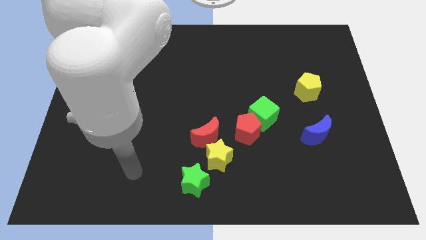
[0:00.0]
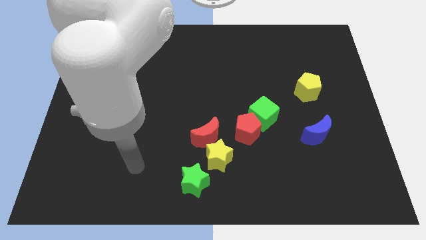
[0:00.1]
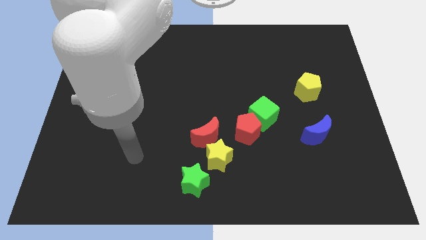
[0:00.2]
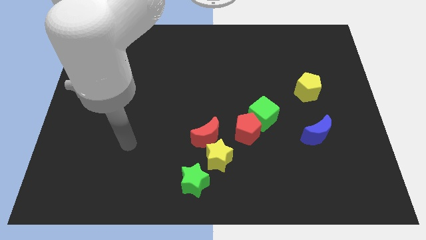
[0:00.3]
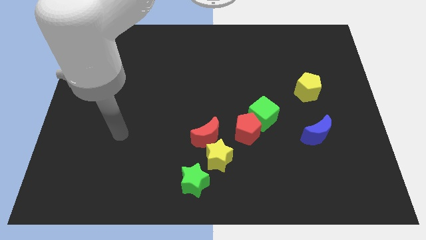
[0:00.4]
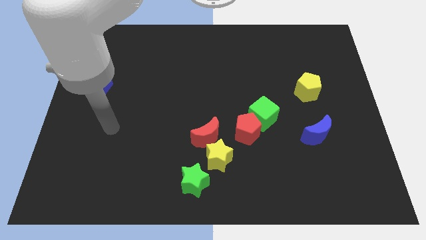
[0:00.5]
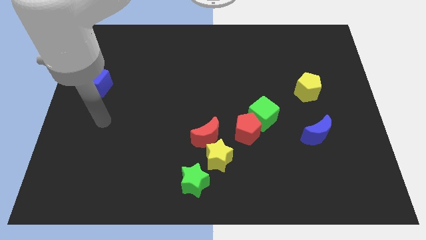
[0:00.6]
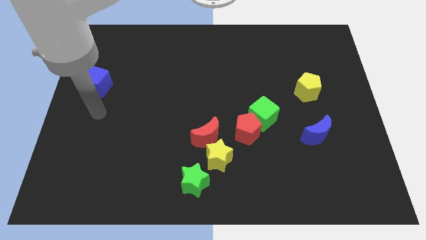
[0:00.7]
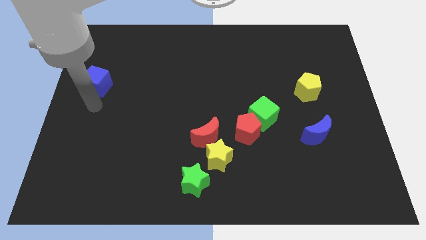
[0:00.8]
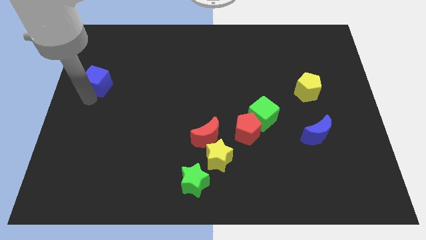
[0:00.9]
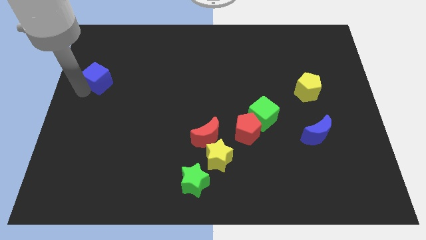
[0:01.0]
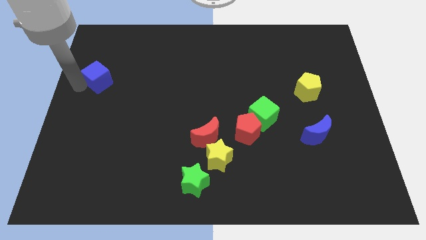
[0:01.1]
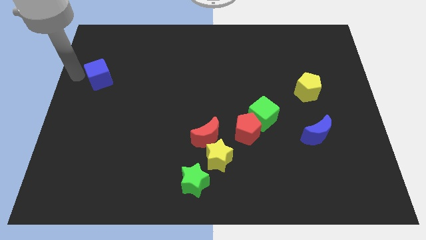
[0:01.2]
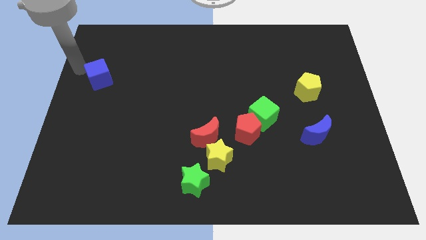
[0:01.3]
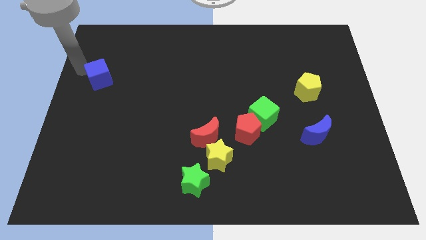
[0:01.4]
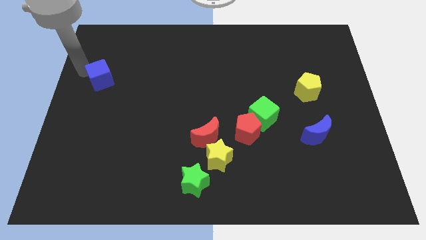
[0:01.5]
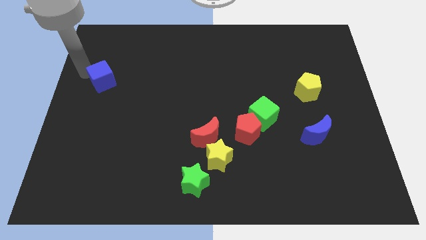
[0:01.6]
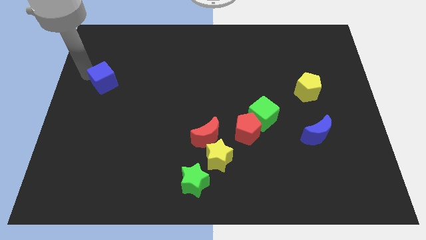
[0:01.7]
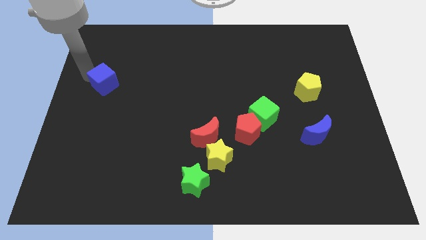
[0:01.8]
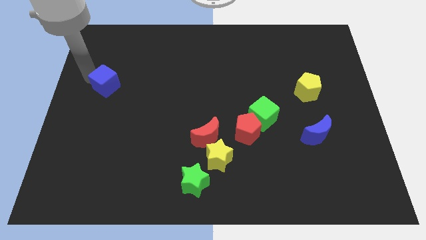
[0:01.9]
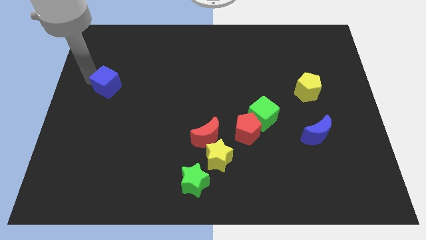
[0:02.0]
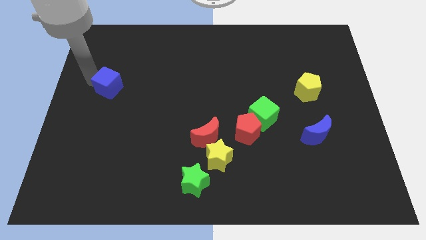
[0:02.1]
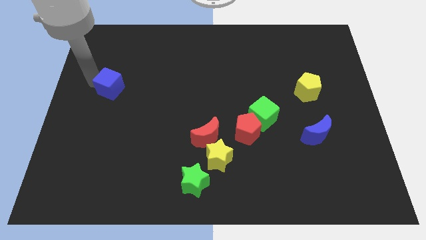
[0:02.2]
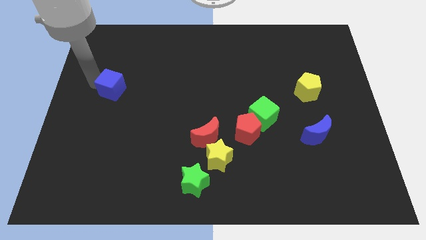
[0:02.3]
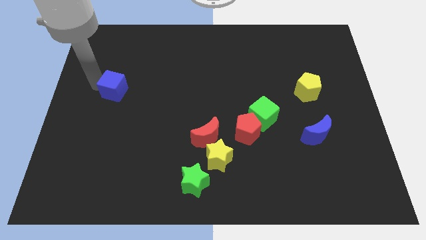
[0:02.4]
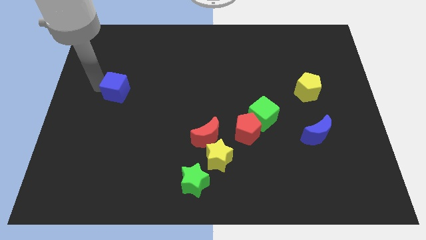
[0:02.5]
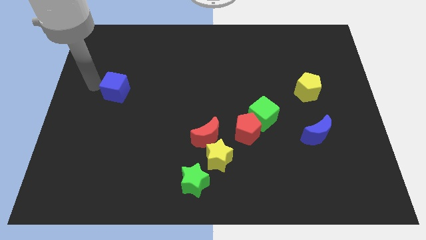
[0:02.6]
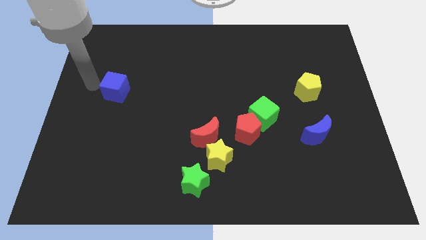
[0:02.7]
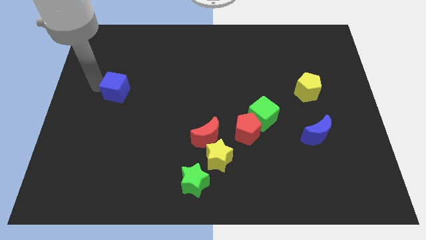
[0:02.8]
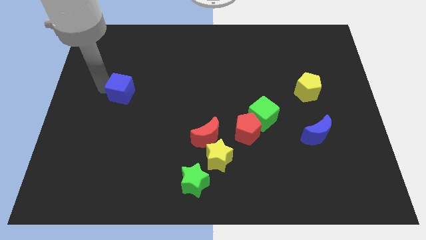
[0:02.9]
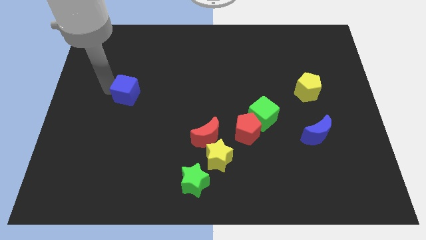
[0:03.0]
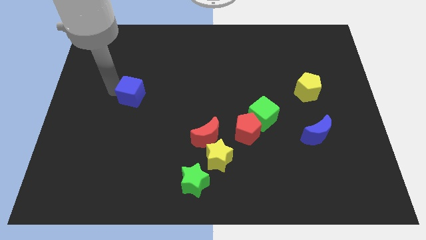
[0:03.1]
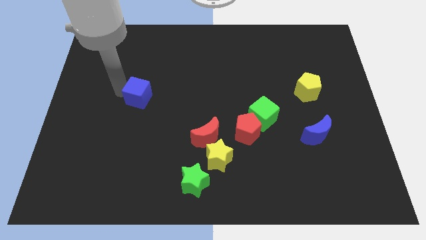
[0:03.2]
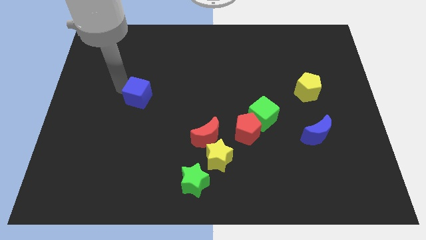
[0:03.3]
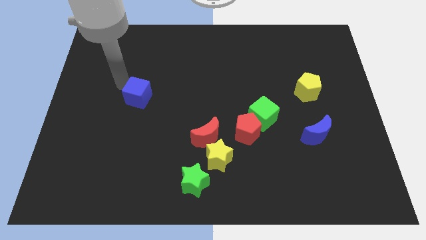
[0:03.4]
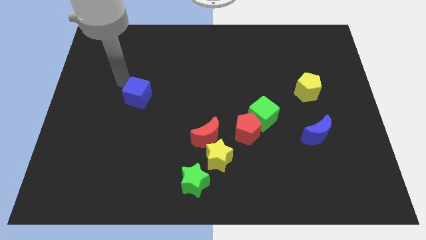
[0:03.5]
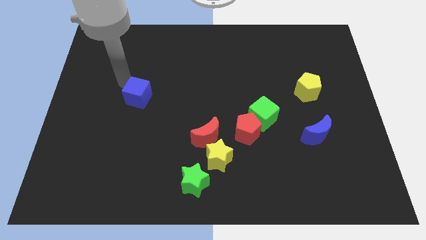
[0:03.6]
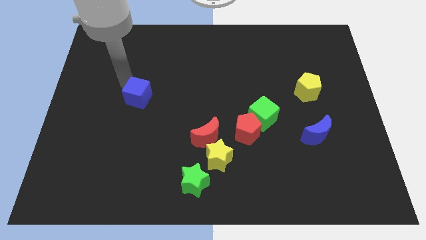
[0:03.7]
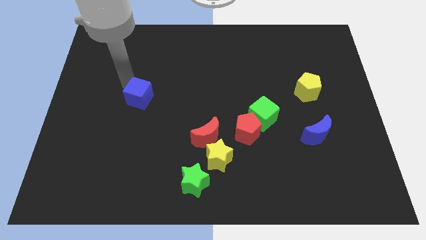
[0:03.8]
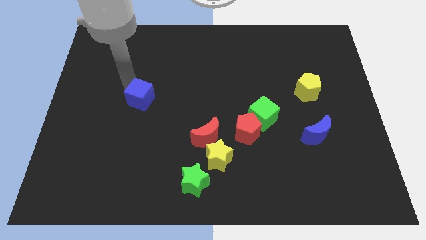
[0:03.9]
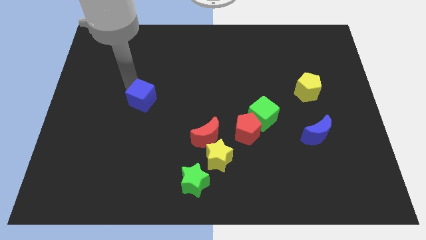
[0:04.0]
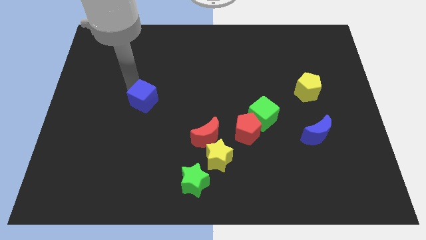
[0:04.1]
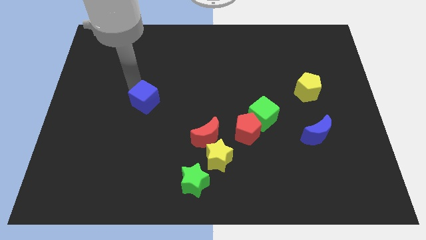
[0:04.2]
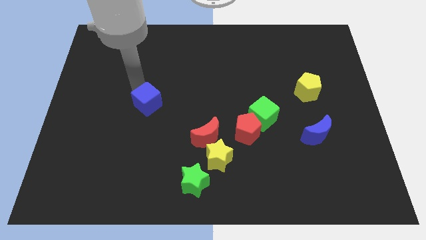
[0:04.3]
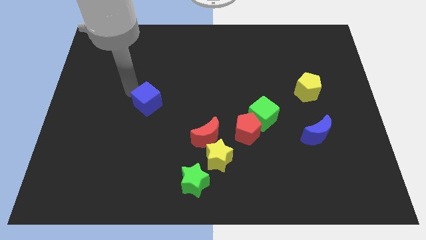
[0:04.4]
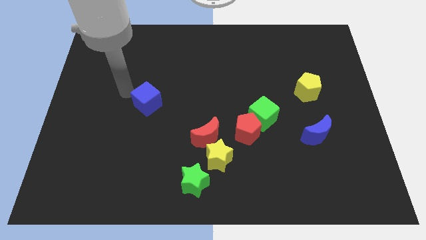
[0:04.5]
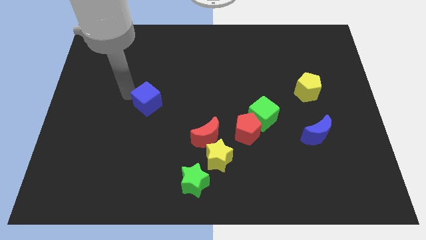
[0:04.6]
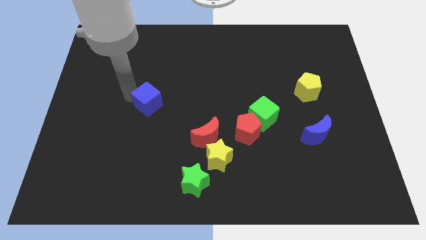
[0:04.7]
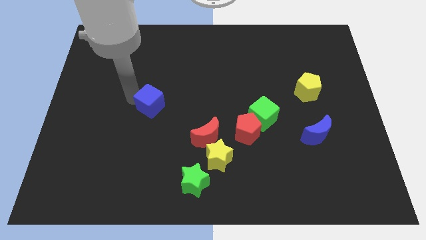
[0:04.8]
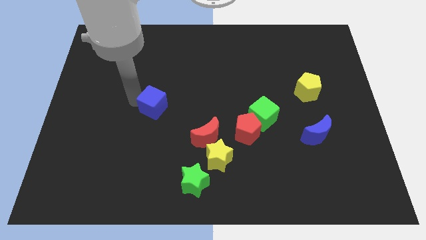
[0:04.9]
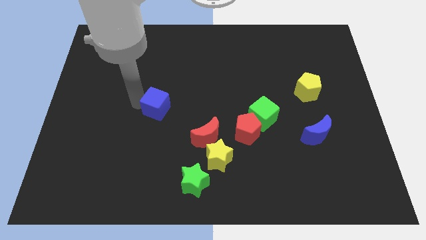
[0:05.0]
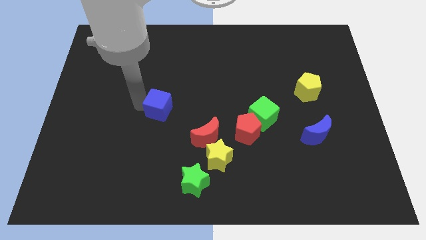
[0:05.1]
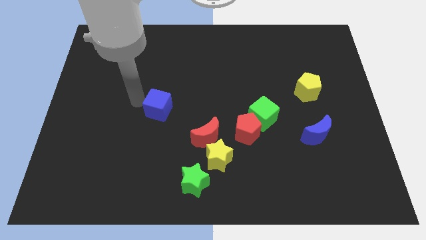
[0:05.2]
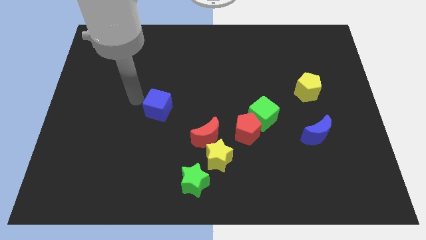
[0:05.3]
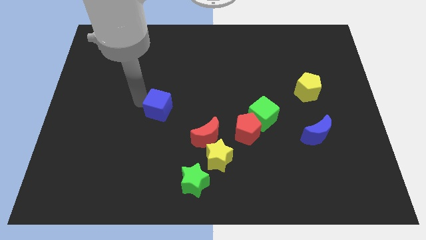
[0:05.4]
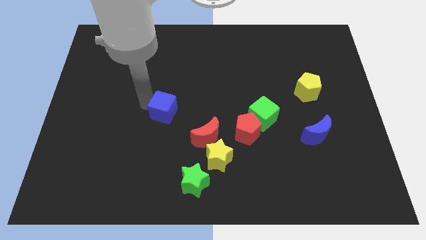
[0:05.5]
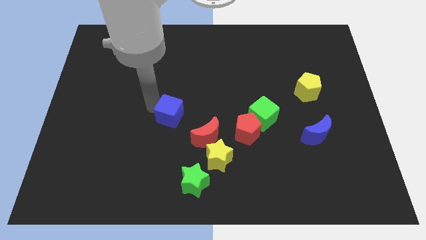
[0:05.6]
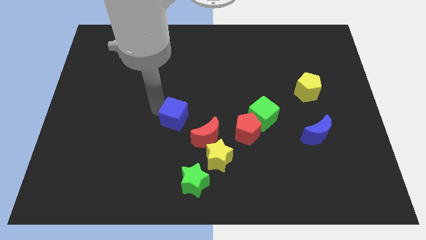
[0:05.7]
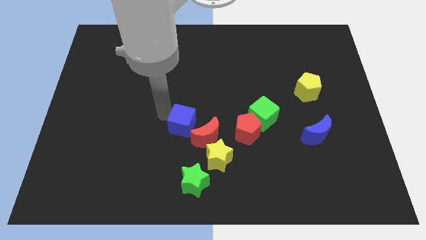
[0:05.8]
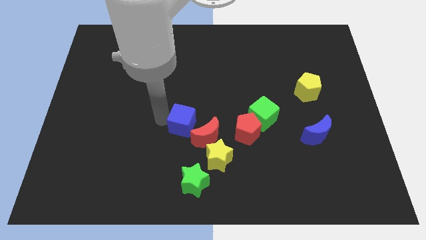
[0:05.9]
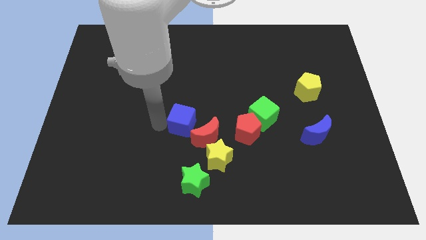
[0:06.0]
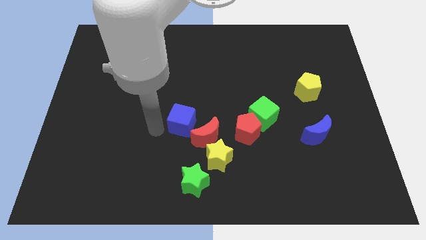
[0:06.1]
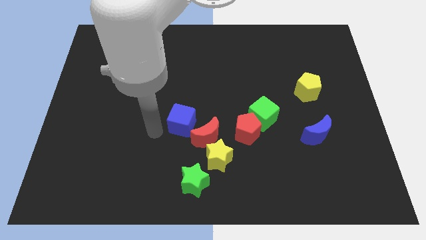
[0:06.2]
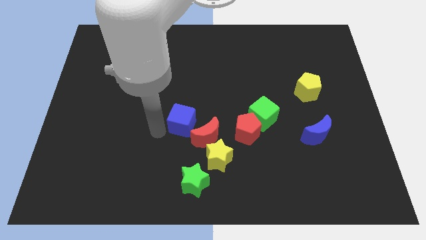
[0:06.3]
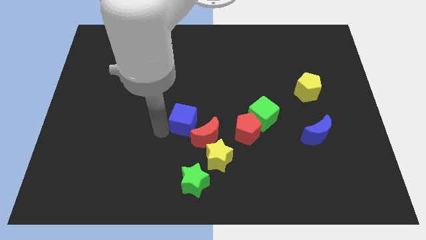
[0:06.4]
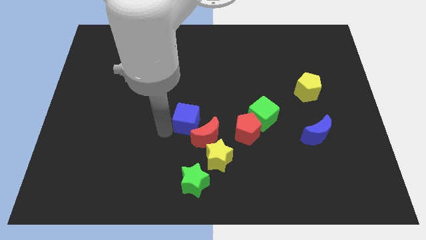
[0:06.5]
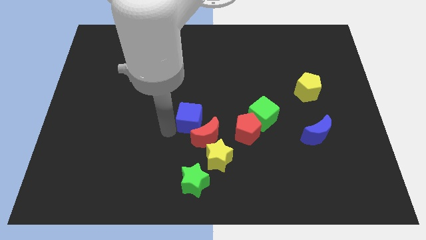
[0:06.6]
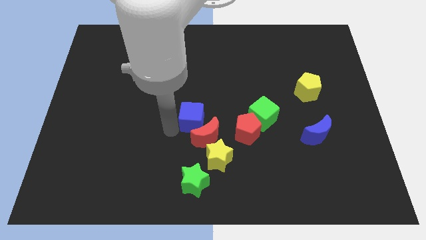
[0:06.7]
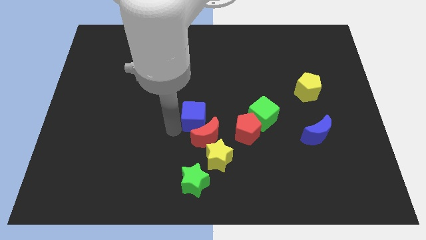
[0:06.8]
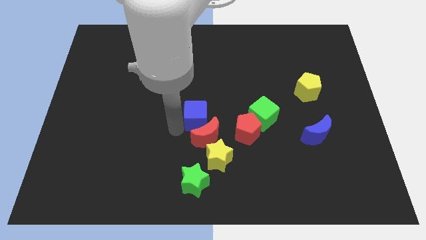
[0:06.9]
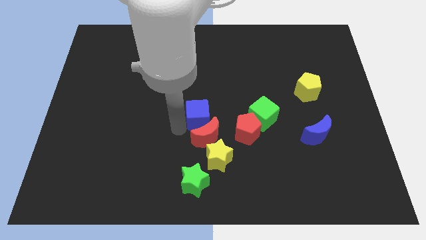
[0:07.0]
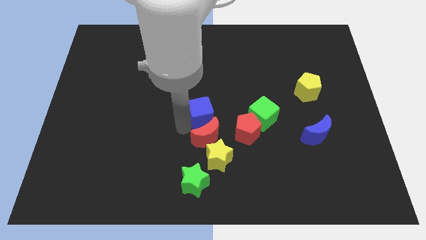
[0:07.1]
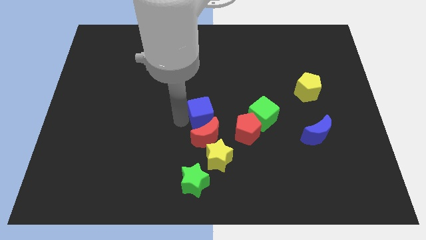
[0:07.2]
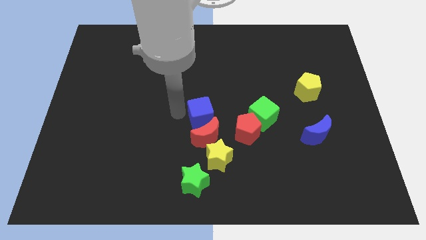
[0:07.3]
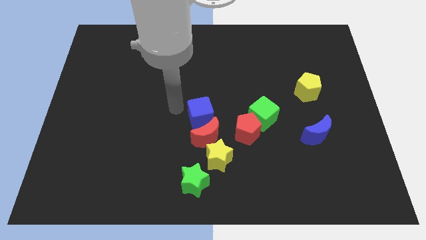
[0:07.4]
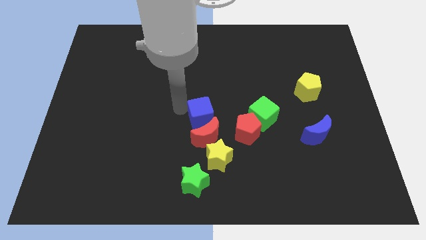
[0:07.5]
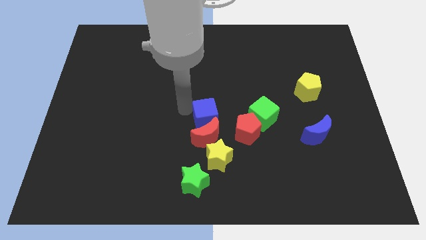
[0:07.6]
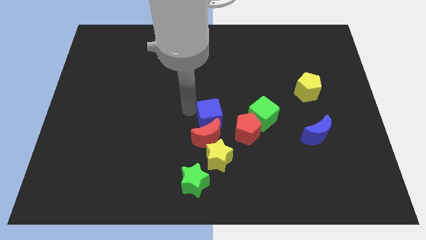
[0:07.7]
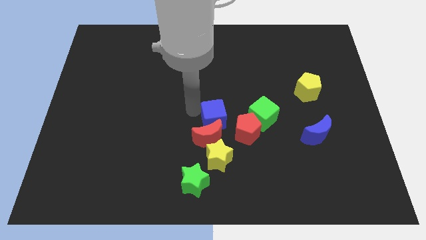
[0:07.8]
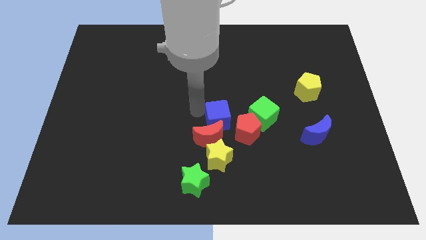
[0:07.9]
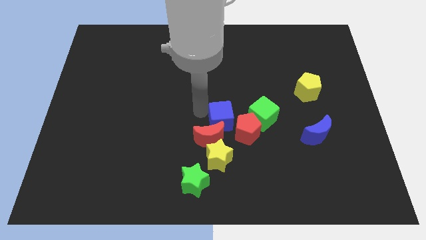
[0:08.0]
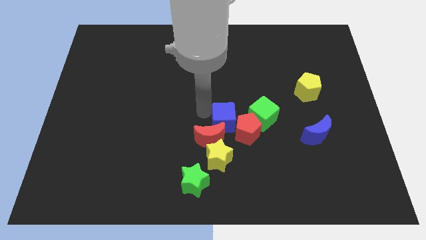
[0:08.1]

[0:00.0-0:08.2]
push the blue cube towards the red pentagon
